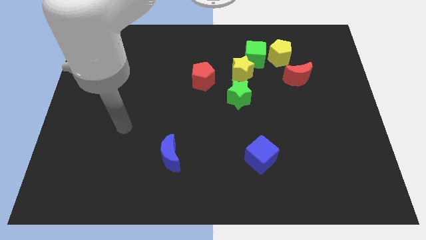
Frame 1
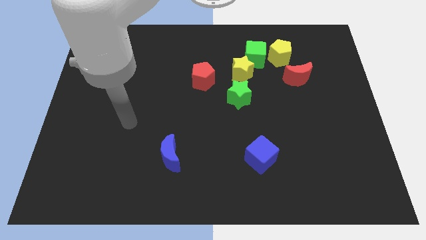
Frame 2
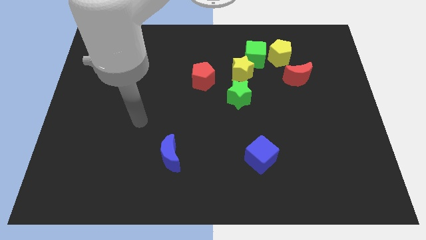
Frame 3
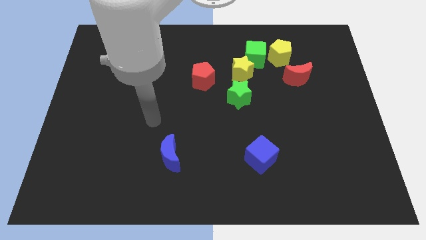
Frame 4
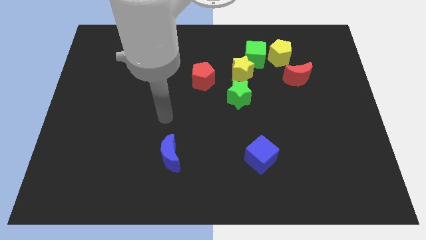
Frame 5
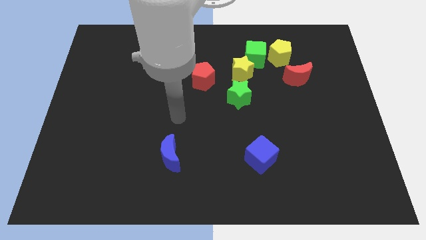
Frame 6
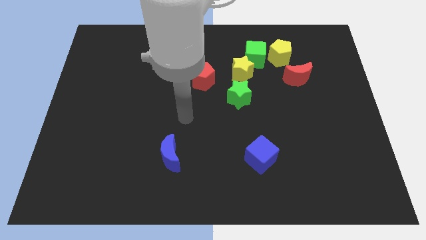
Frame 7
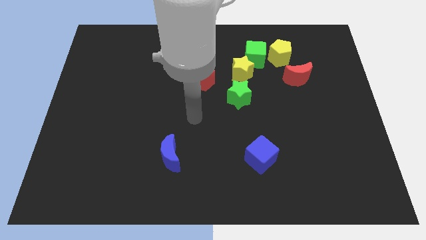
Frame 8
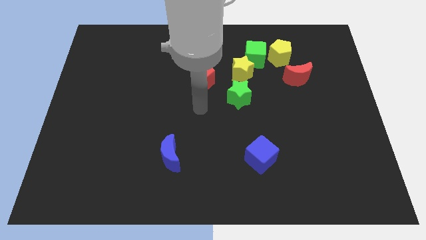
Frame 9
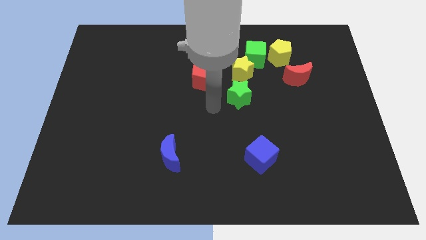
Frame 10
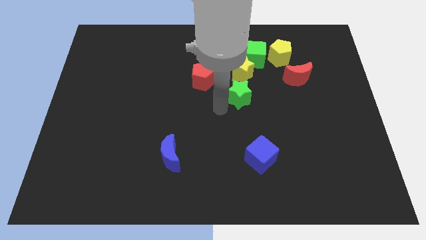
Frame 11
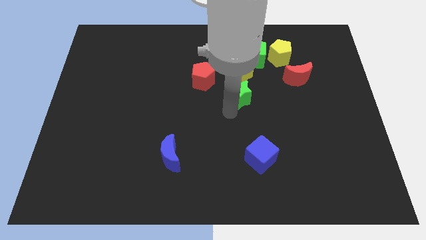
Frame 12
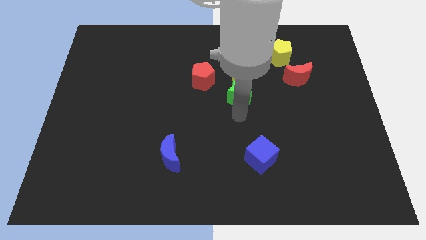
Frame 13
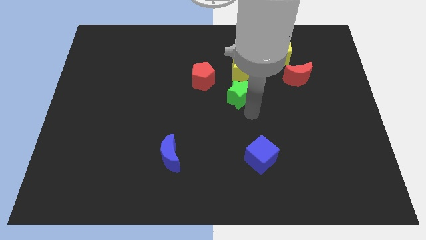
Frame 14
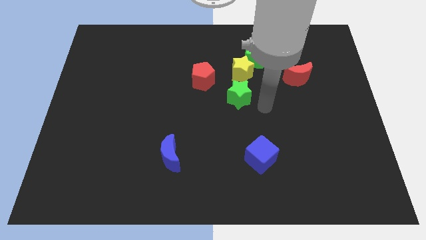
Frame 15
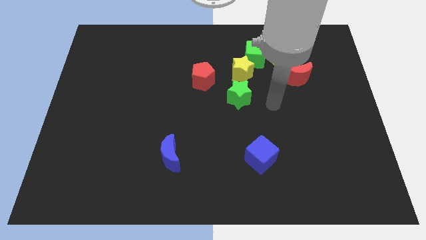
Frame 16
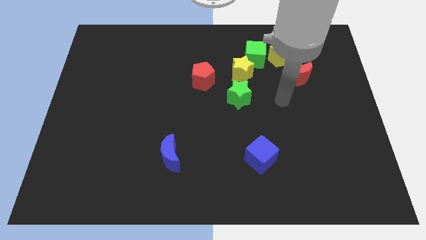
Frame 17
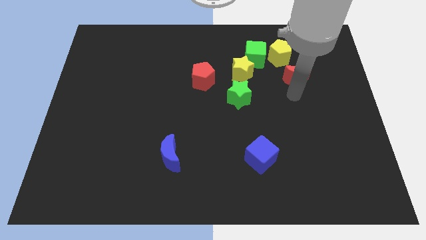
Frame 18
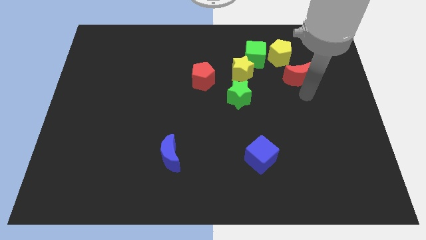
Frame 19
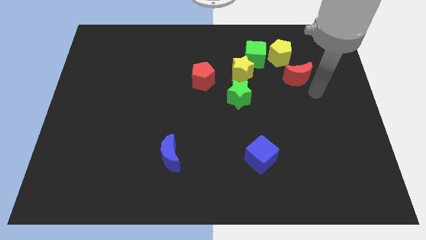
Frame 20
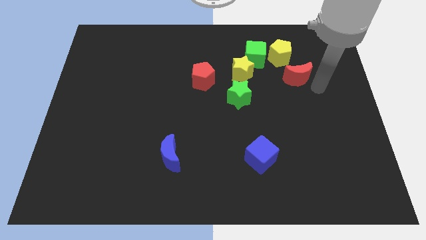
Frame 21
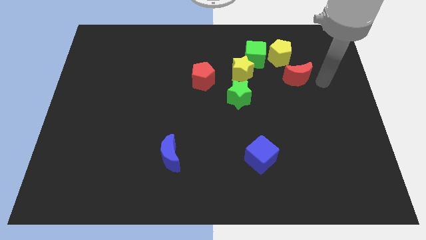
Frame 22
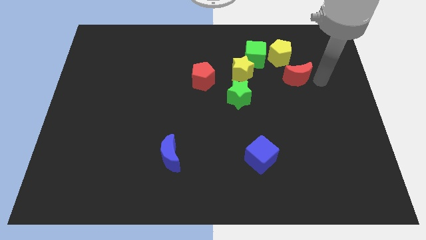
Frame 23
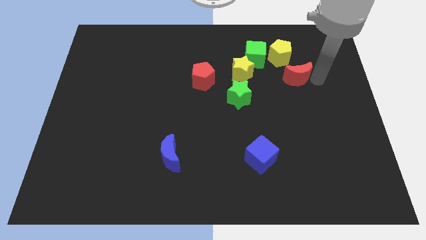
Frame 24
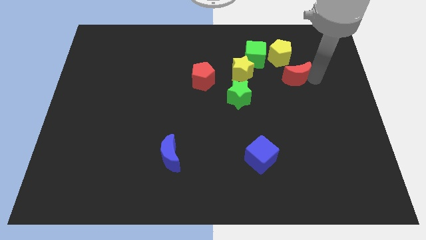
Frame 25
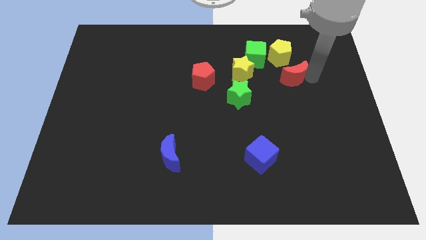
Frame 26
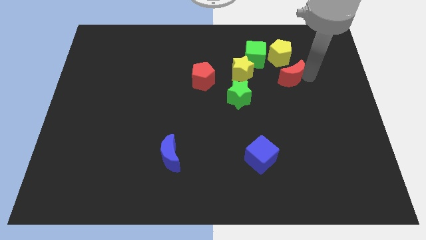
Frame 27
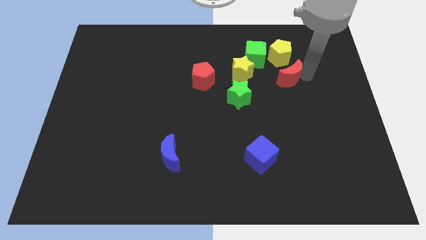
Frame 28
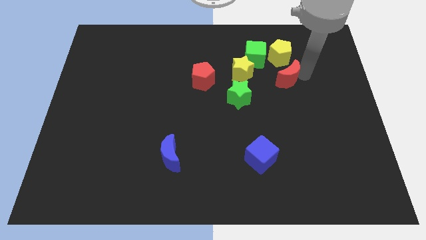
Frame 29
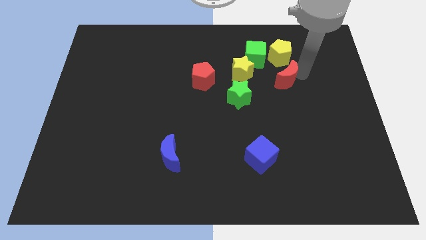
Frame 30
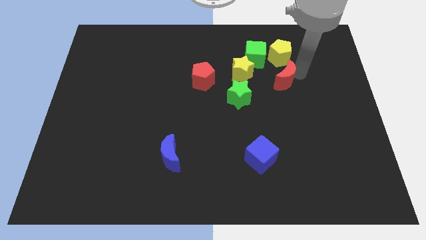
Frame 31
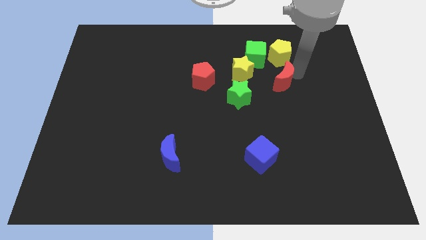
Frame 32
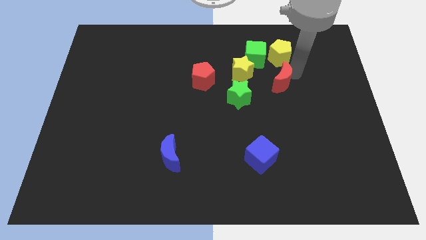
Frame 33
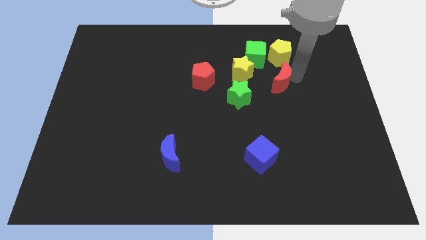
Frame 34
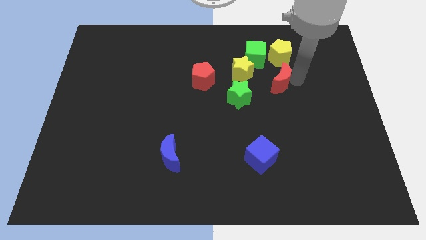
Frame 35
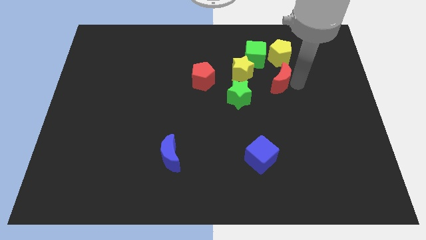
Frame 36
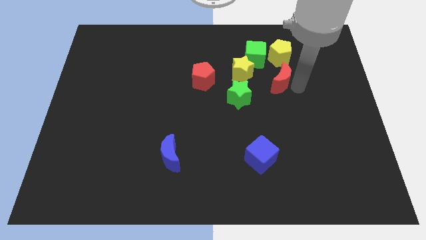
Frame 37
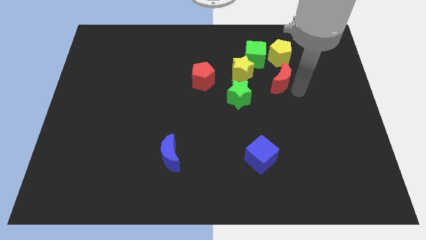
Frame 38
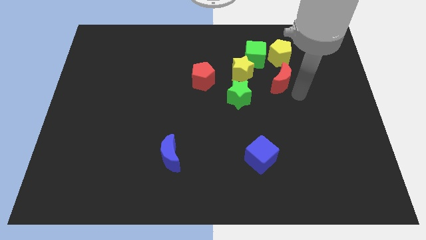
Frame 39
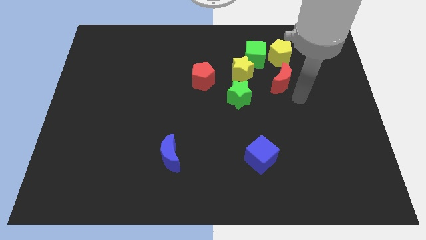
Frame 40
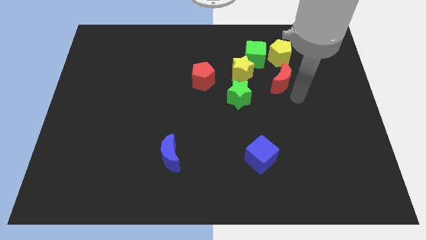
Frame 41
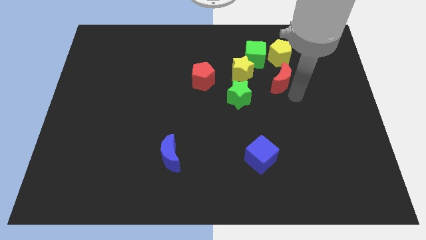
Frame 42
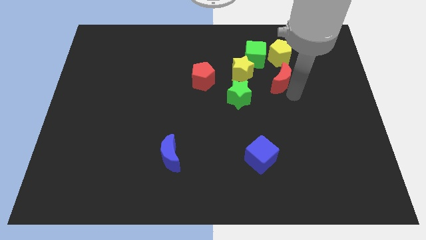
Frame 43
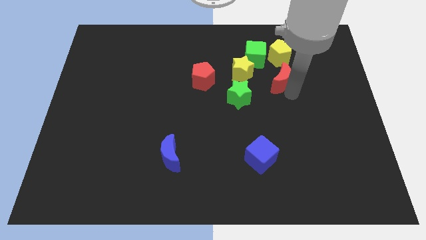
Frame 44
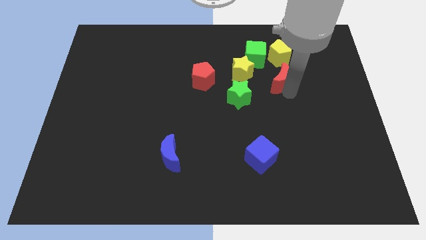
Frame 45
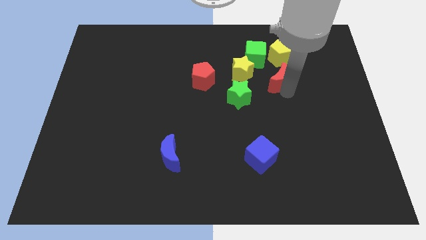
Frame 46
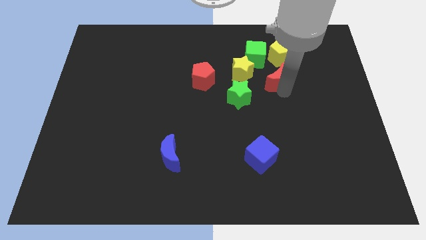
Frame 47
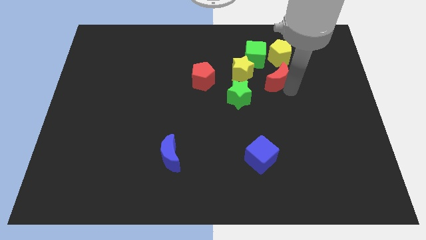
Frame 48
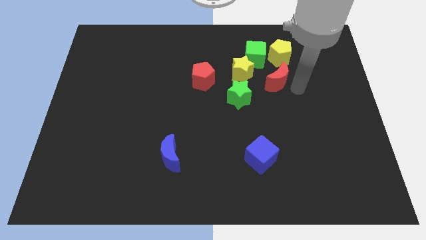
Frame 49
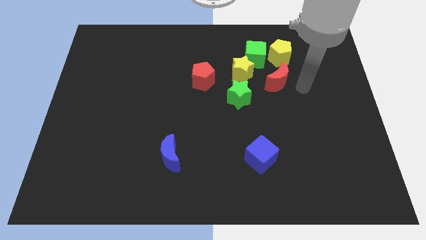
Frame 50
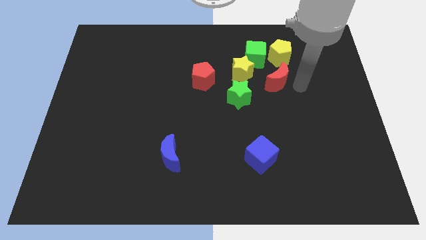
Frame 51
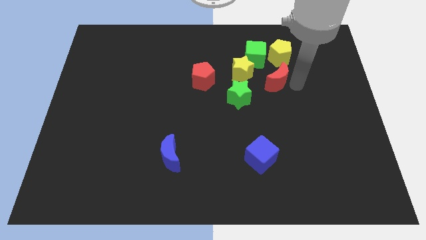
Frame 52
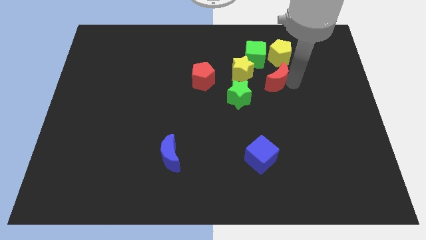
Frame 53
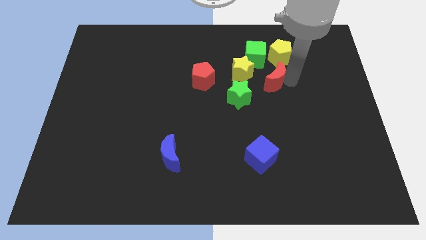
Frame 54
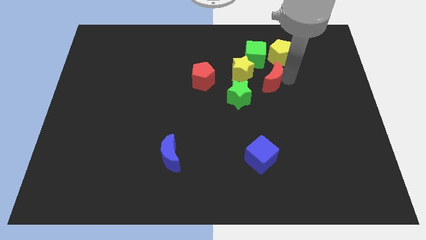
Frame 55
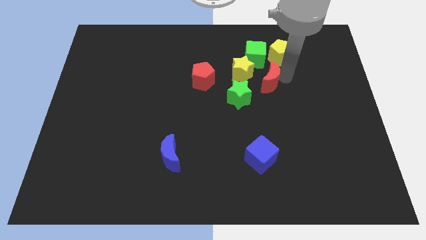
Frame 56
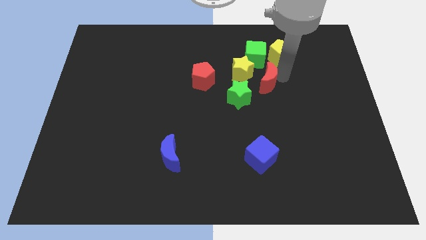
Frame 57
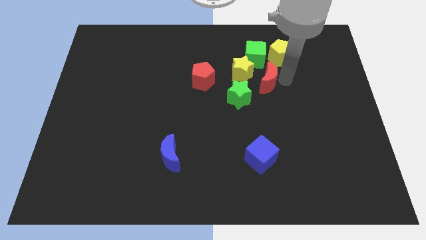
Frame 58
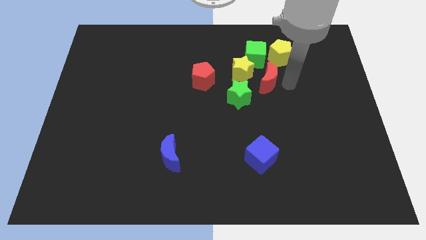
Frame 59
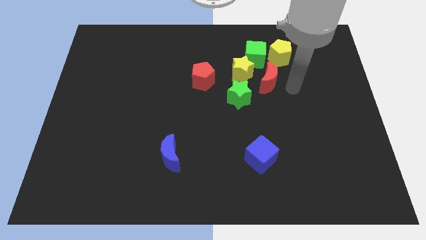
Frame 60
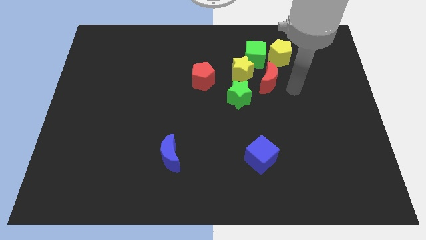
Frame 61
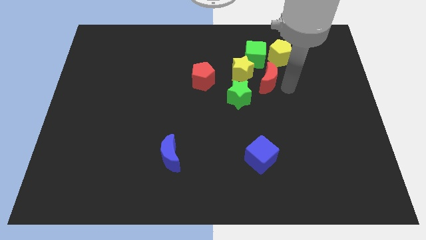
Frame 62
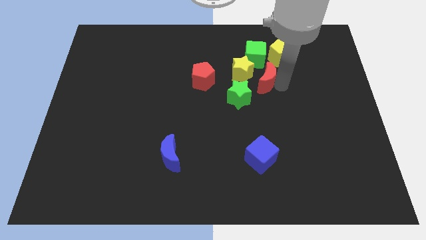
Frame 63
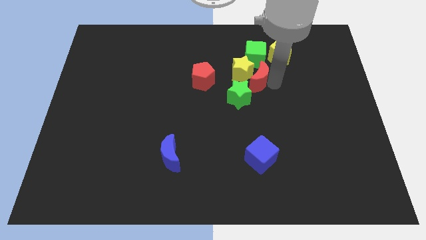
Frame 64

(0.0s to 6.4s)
push the red moon to the yellow star
